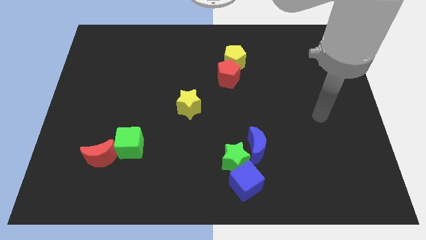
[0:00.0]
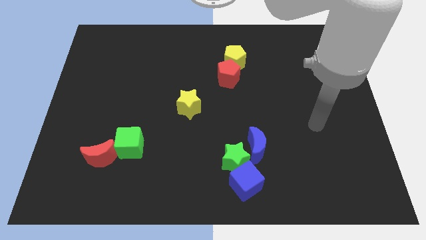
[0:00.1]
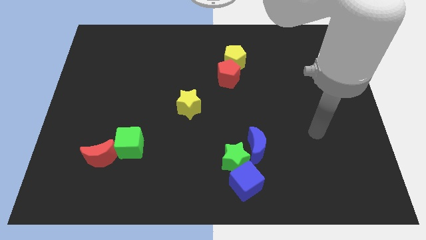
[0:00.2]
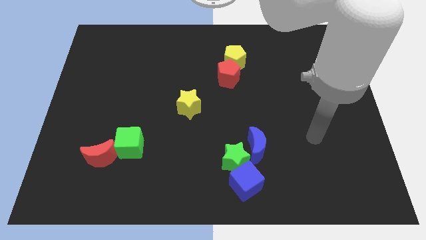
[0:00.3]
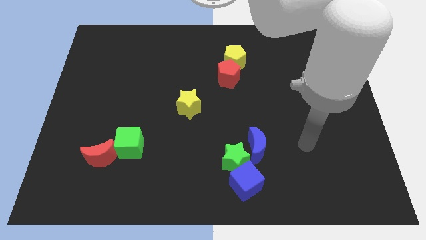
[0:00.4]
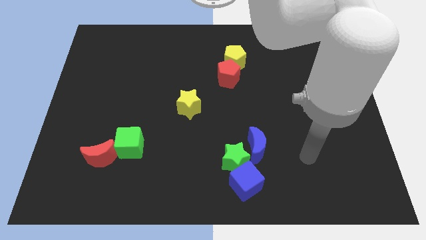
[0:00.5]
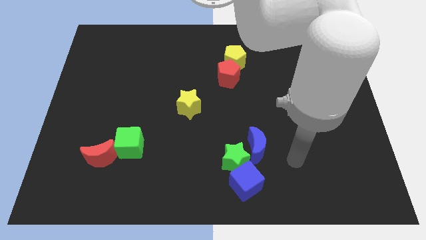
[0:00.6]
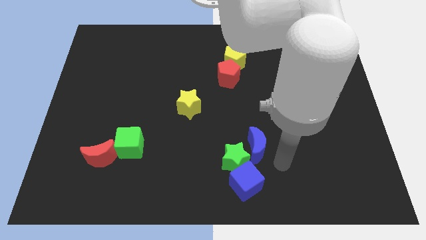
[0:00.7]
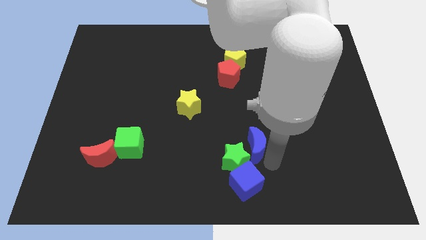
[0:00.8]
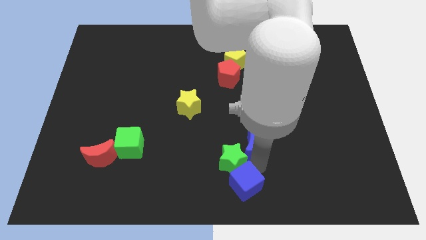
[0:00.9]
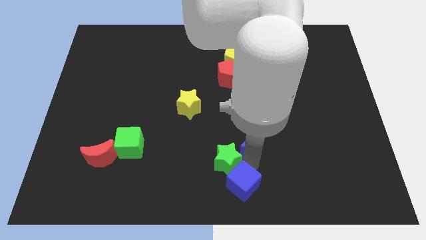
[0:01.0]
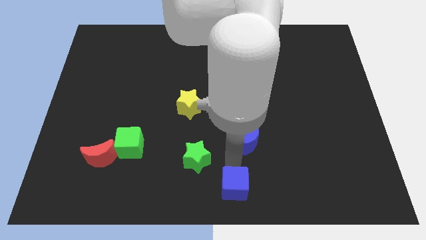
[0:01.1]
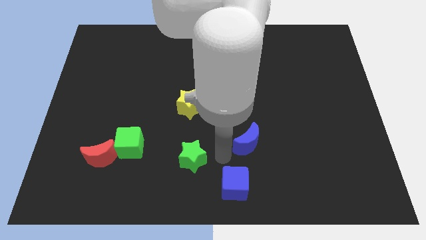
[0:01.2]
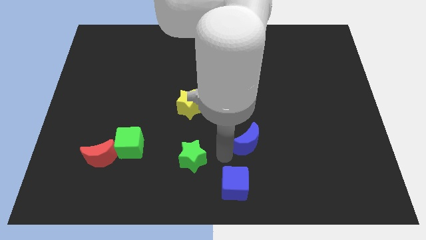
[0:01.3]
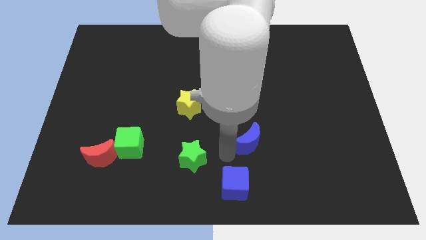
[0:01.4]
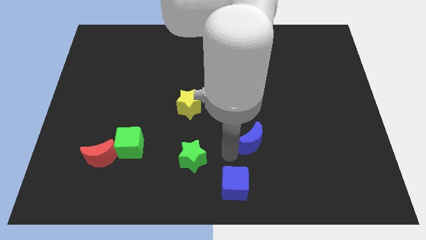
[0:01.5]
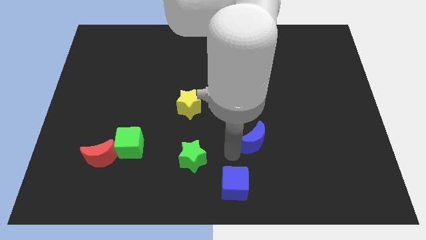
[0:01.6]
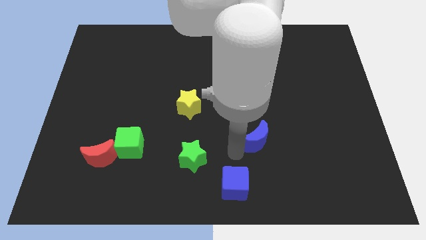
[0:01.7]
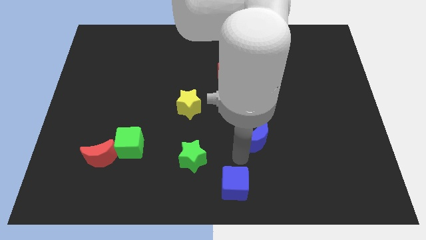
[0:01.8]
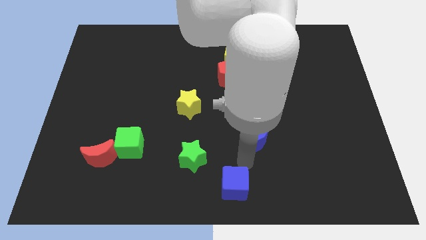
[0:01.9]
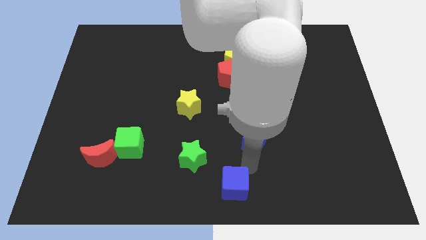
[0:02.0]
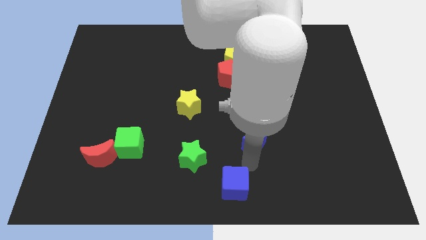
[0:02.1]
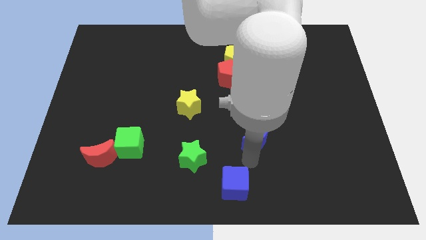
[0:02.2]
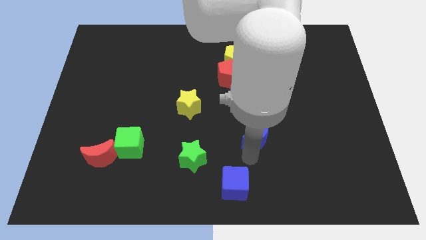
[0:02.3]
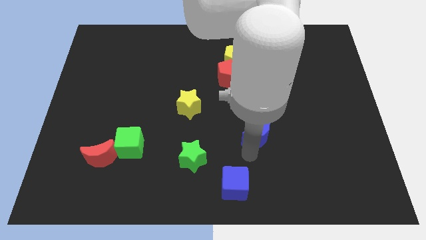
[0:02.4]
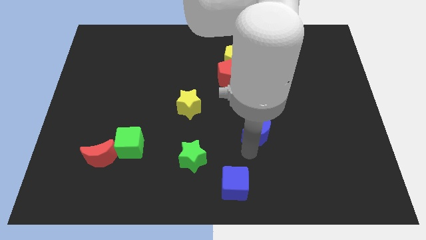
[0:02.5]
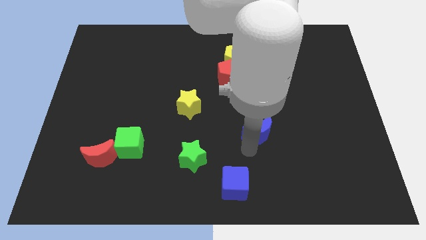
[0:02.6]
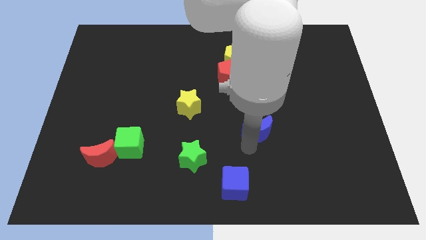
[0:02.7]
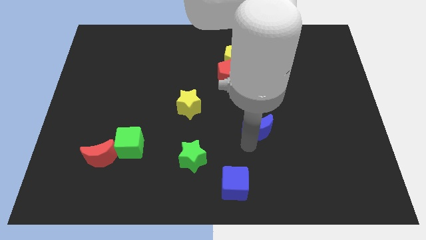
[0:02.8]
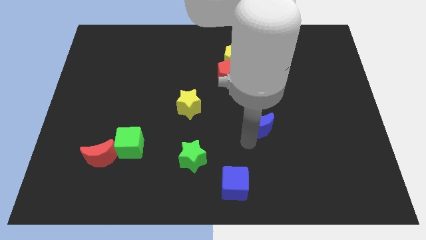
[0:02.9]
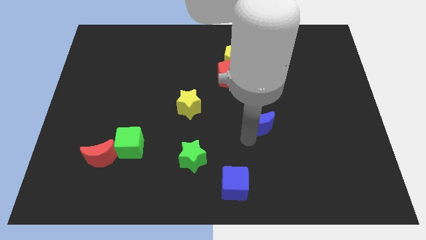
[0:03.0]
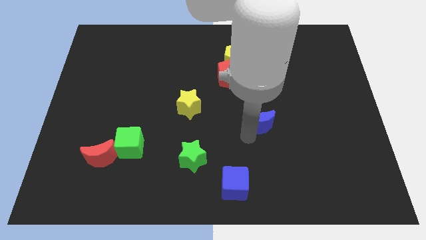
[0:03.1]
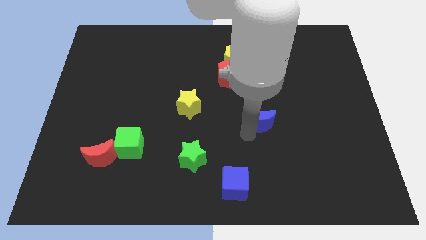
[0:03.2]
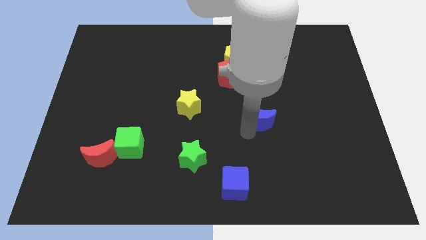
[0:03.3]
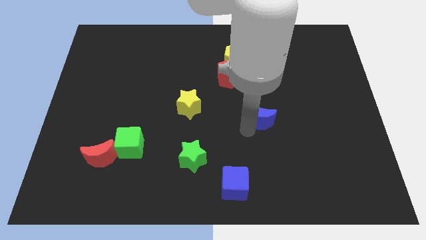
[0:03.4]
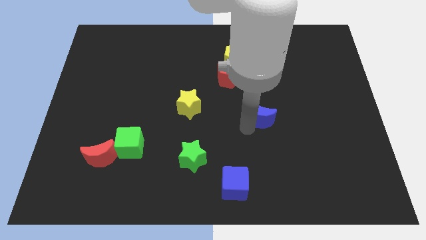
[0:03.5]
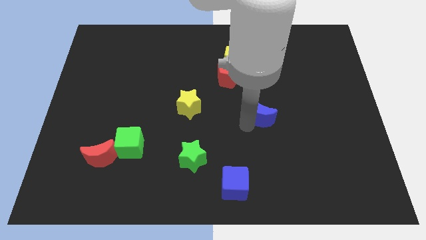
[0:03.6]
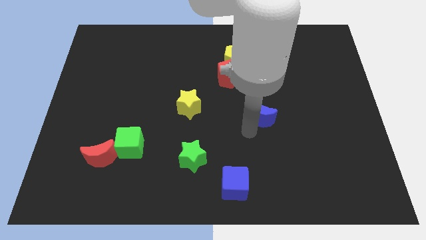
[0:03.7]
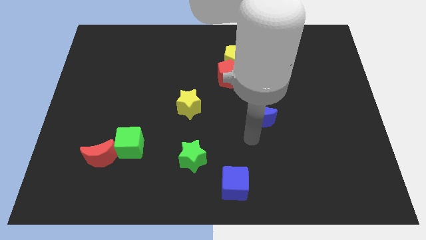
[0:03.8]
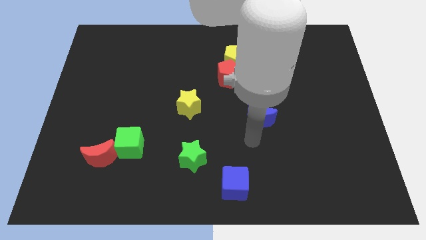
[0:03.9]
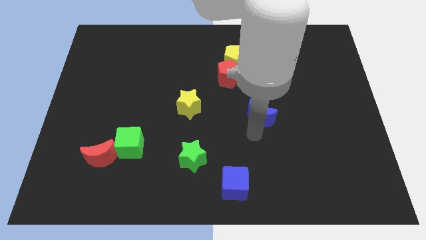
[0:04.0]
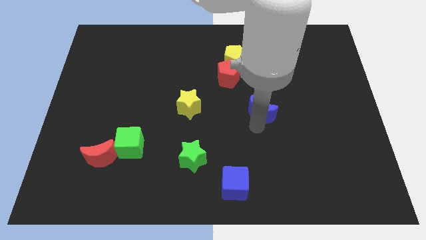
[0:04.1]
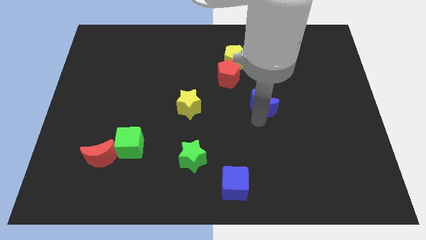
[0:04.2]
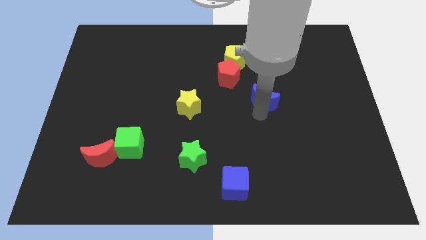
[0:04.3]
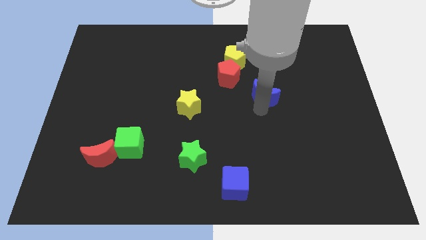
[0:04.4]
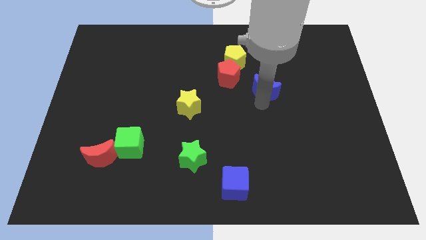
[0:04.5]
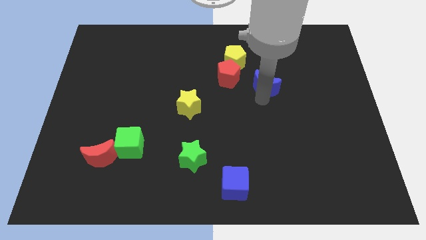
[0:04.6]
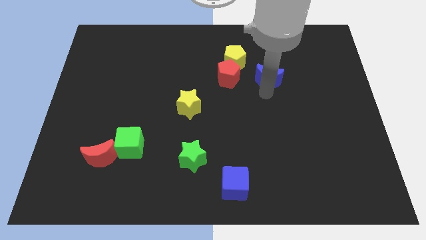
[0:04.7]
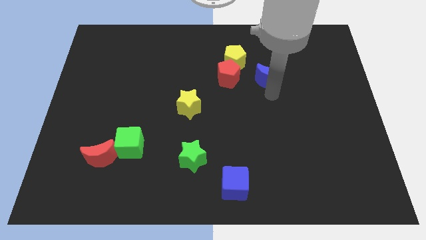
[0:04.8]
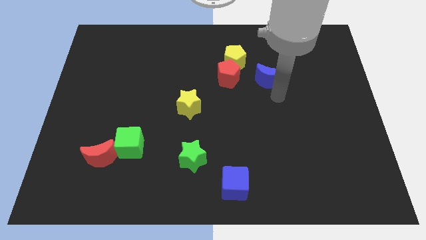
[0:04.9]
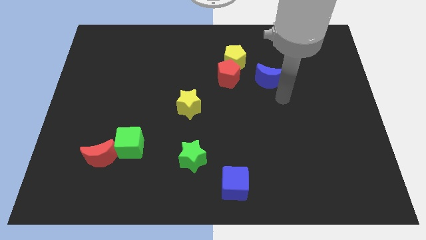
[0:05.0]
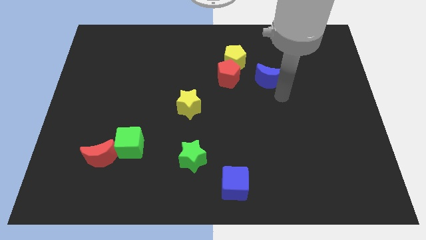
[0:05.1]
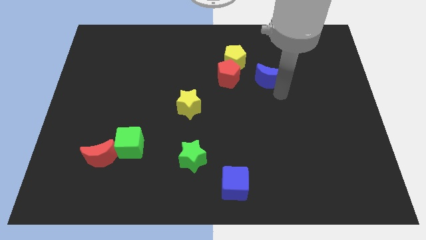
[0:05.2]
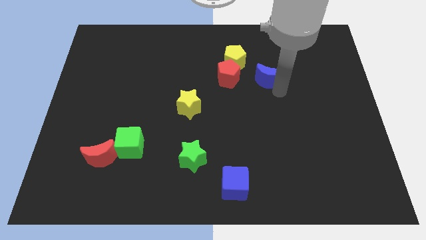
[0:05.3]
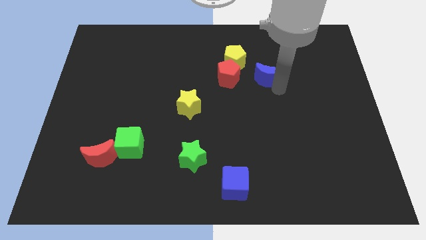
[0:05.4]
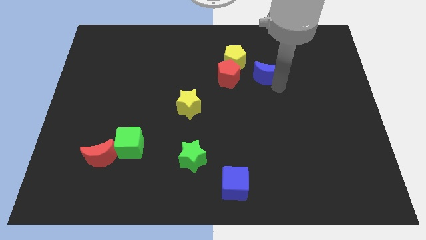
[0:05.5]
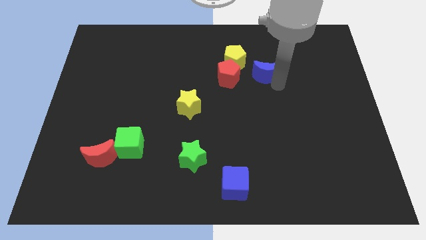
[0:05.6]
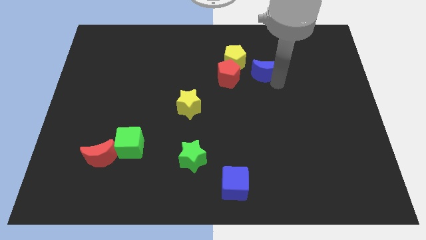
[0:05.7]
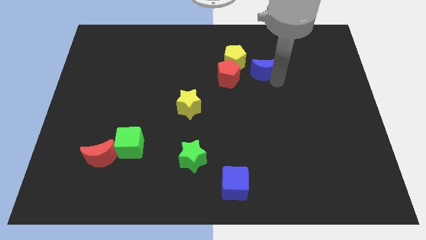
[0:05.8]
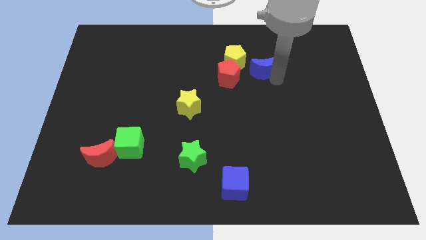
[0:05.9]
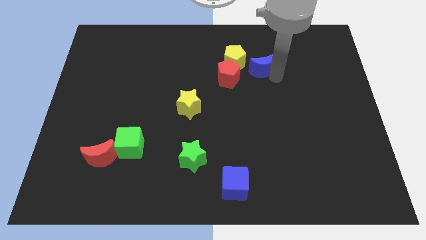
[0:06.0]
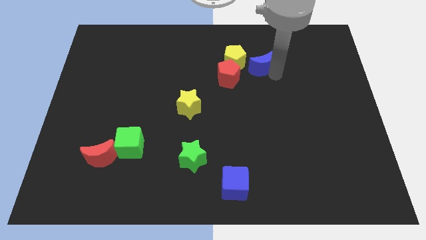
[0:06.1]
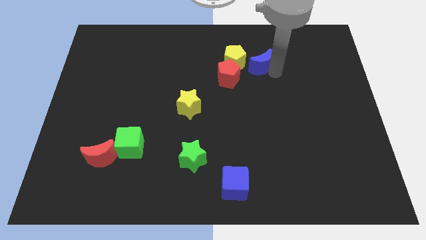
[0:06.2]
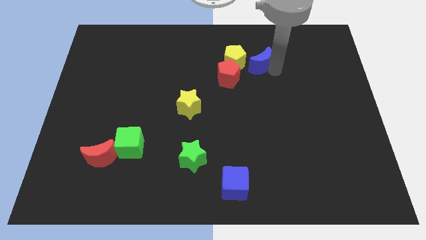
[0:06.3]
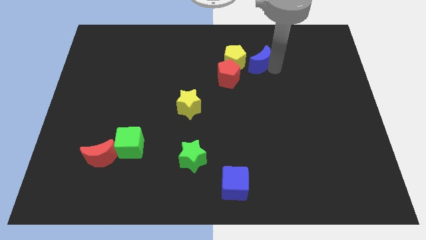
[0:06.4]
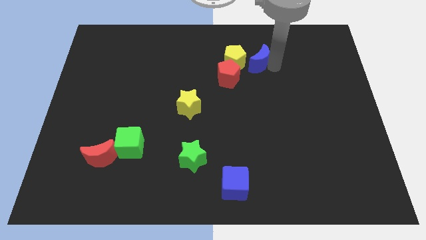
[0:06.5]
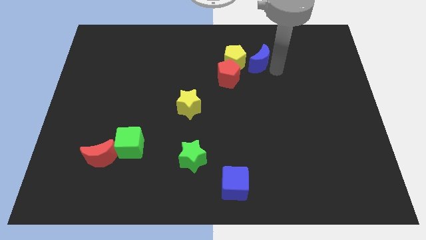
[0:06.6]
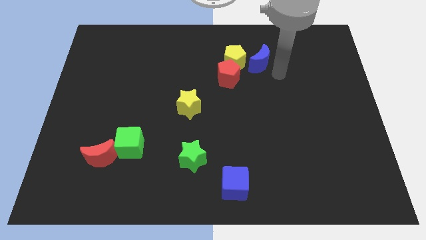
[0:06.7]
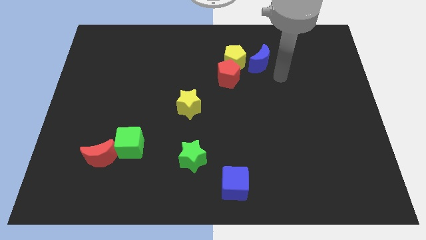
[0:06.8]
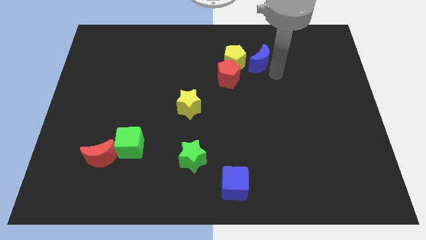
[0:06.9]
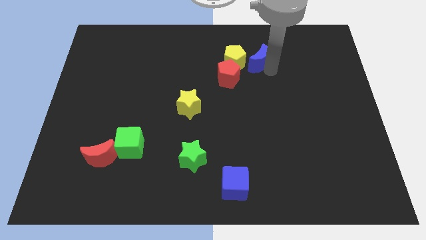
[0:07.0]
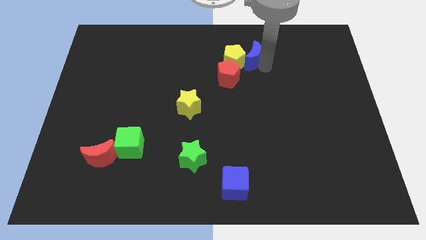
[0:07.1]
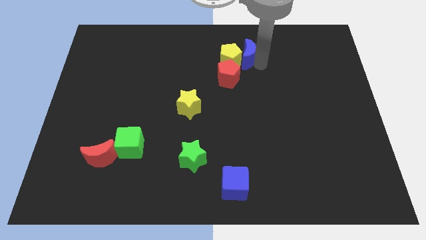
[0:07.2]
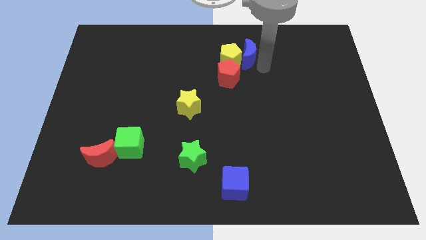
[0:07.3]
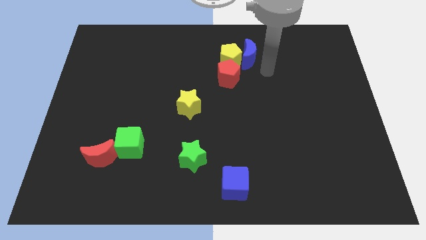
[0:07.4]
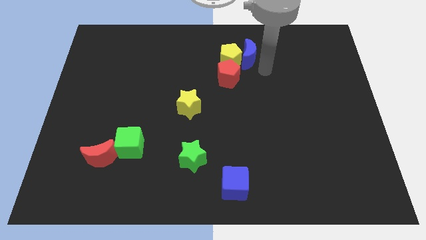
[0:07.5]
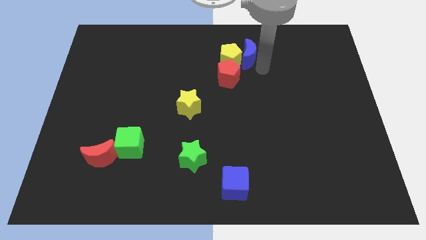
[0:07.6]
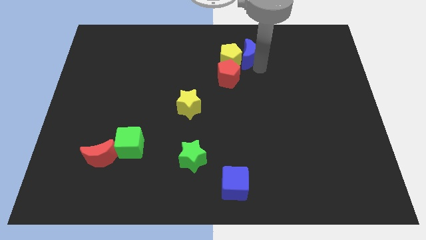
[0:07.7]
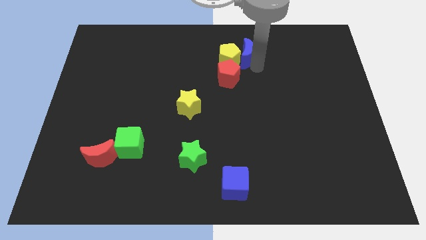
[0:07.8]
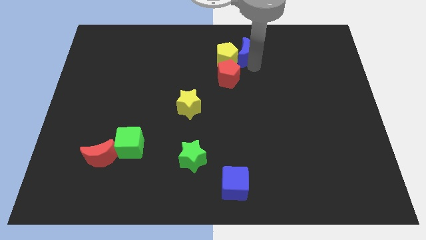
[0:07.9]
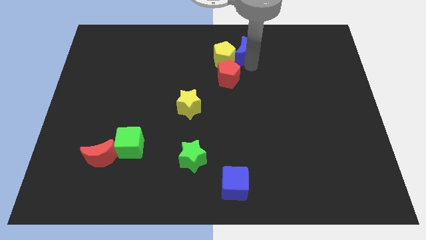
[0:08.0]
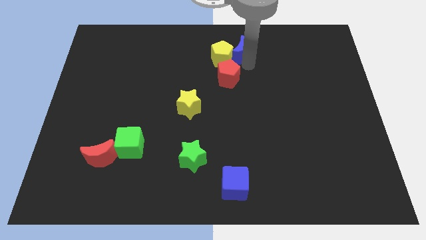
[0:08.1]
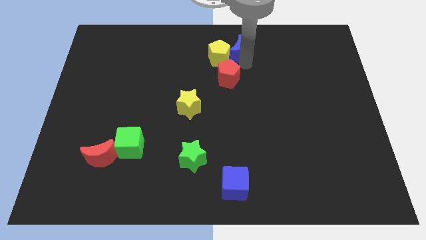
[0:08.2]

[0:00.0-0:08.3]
move the blue moon to the top side
